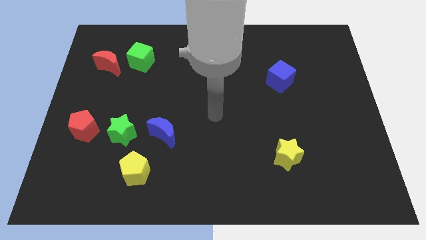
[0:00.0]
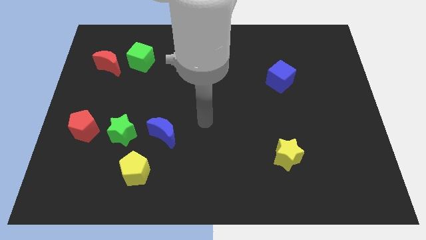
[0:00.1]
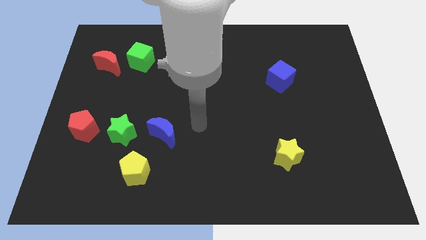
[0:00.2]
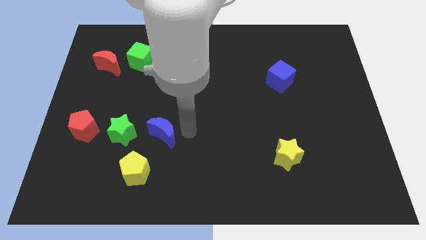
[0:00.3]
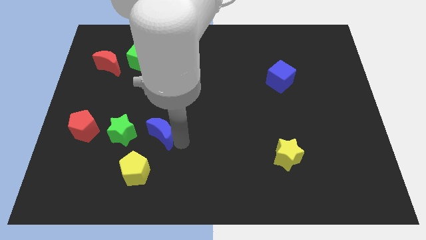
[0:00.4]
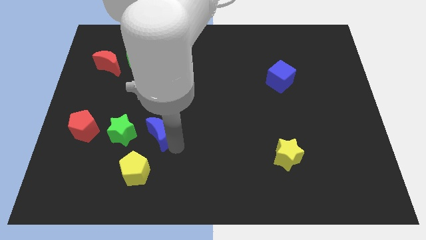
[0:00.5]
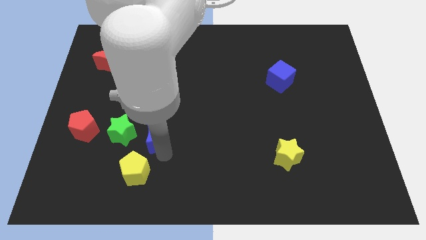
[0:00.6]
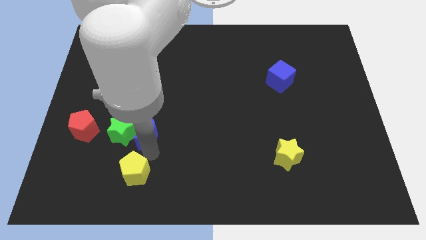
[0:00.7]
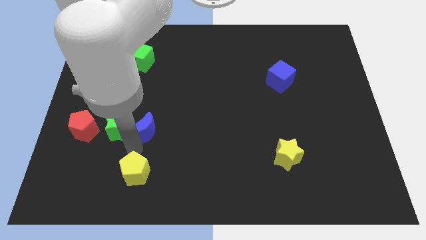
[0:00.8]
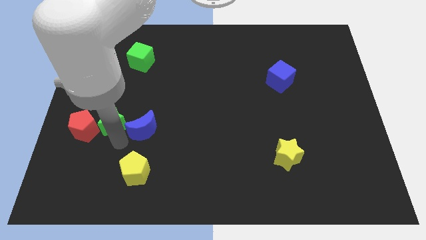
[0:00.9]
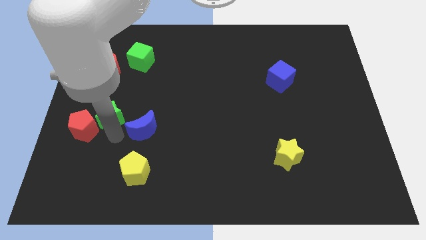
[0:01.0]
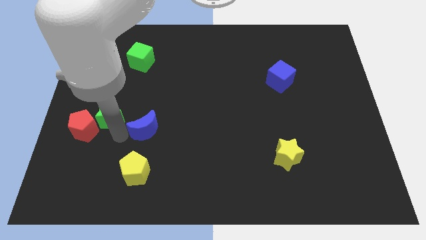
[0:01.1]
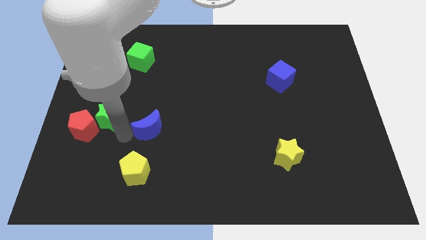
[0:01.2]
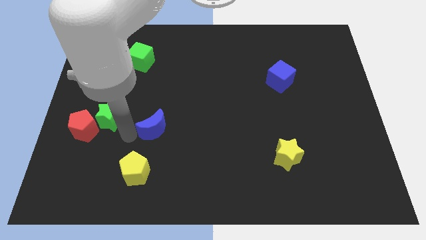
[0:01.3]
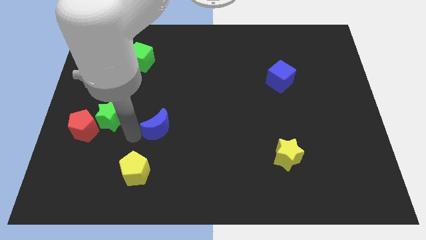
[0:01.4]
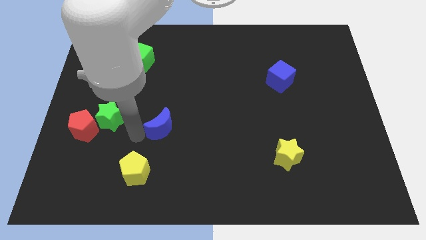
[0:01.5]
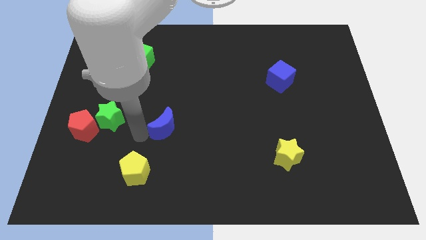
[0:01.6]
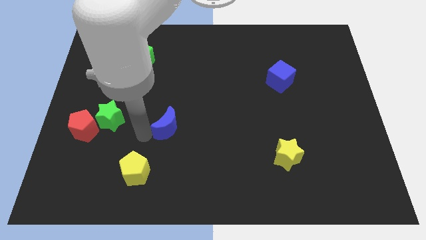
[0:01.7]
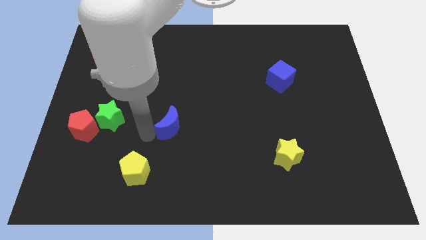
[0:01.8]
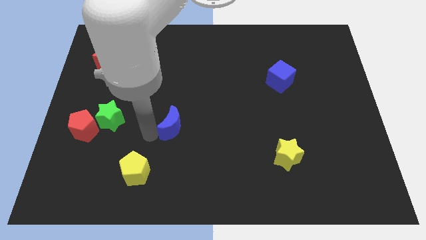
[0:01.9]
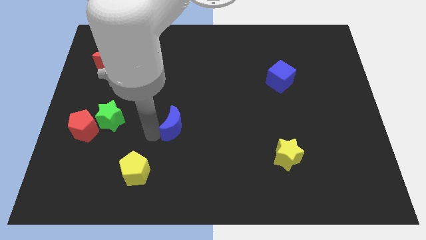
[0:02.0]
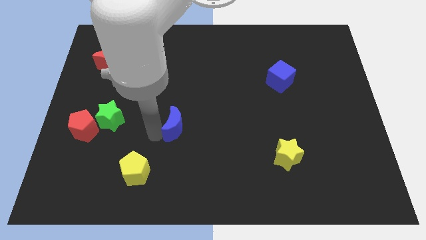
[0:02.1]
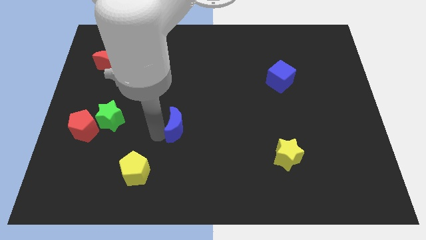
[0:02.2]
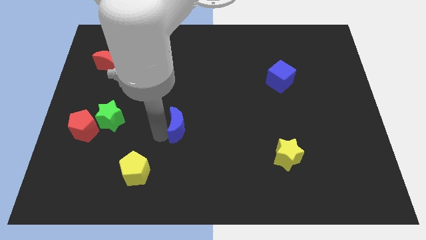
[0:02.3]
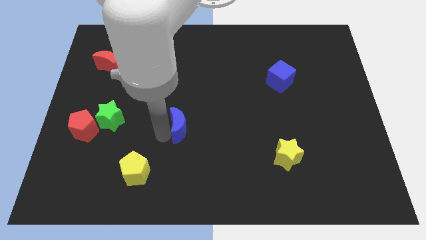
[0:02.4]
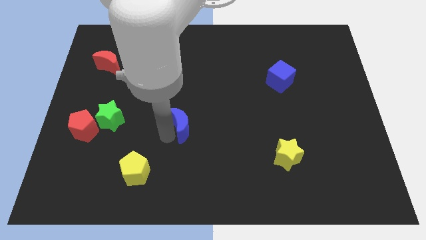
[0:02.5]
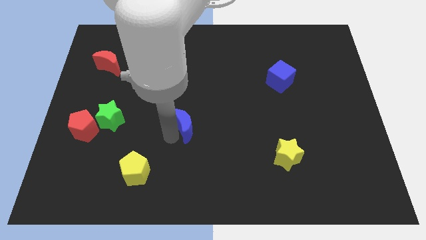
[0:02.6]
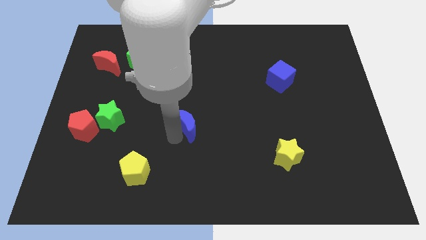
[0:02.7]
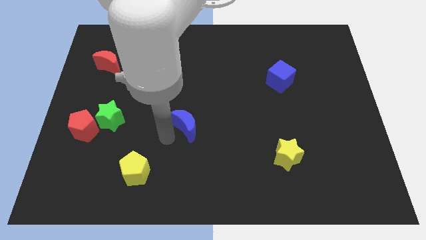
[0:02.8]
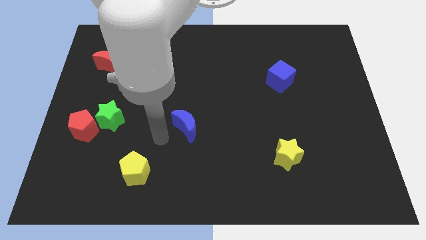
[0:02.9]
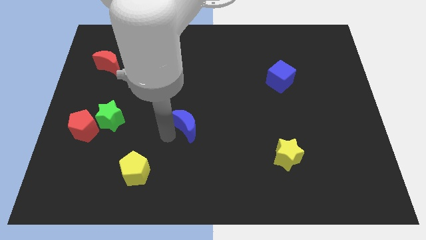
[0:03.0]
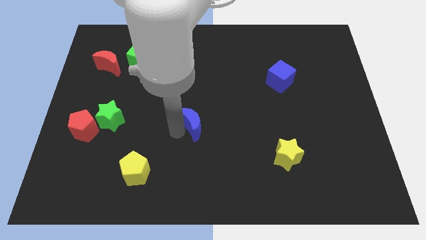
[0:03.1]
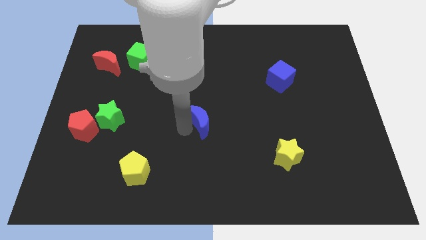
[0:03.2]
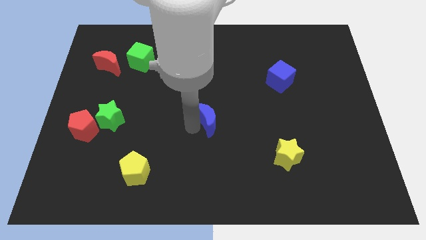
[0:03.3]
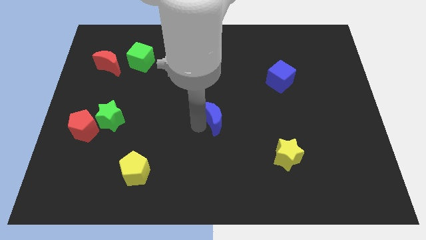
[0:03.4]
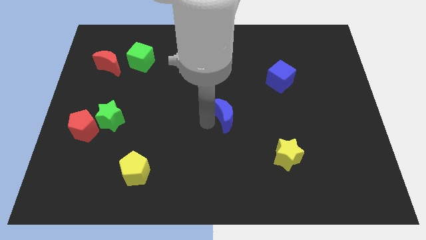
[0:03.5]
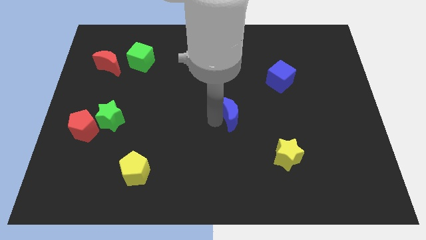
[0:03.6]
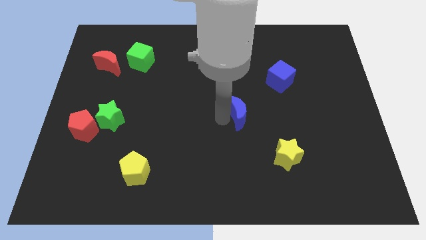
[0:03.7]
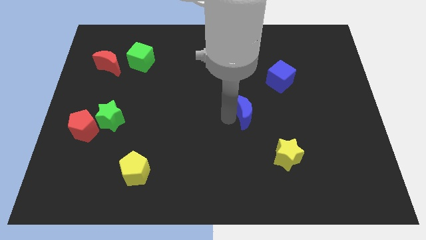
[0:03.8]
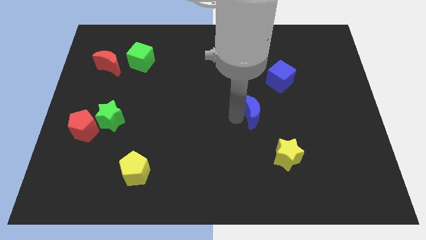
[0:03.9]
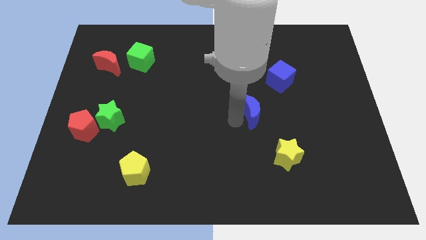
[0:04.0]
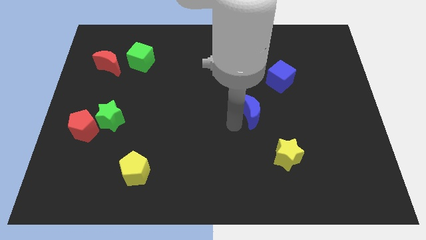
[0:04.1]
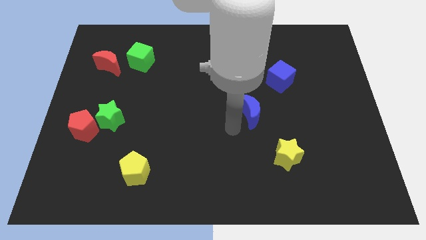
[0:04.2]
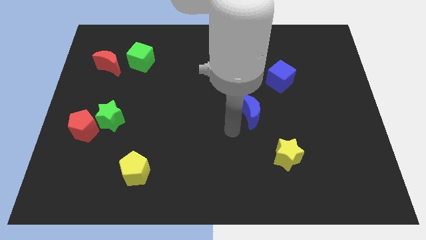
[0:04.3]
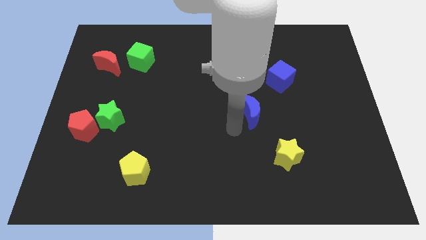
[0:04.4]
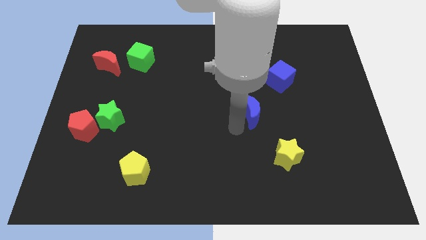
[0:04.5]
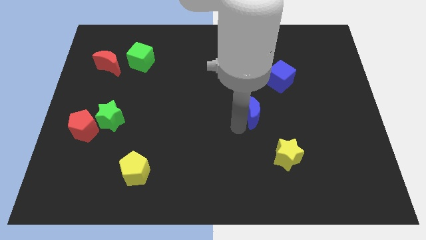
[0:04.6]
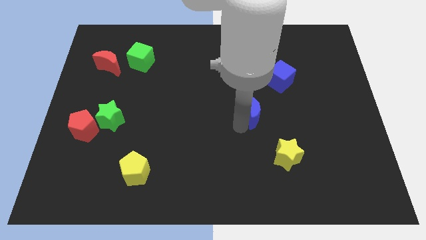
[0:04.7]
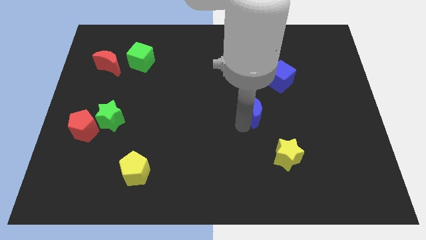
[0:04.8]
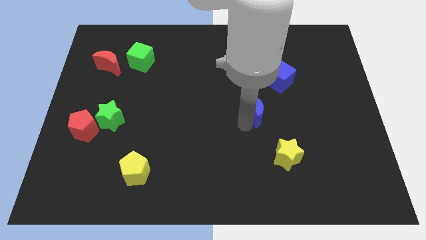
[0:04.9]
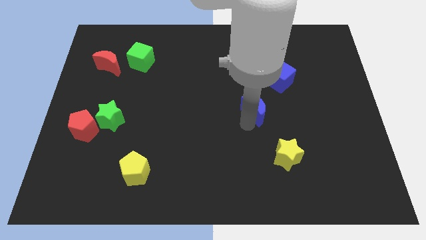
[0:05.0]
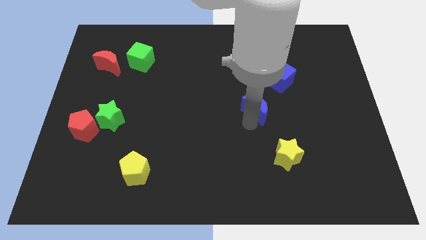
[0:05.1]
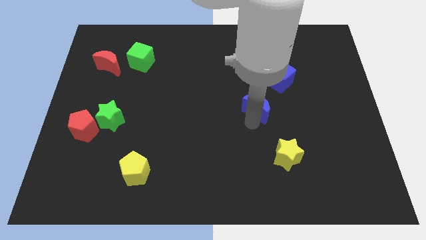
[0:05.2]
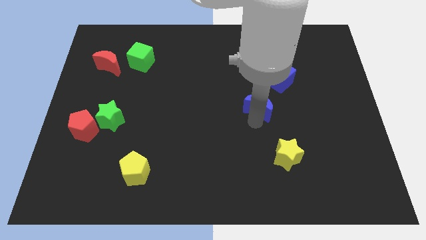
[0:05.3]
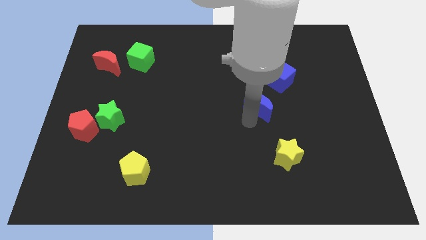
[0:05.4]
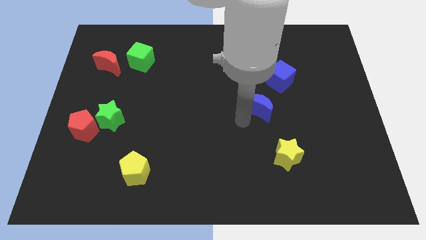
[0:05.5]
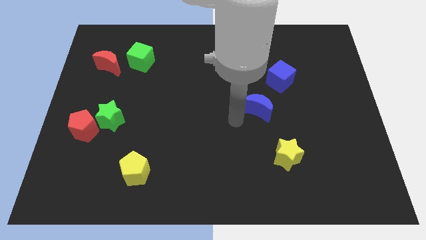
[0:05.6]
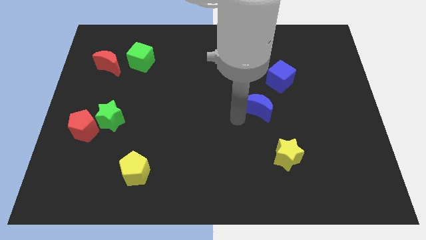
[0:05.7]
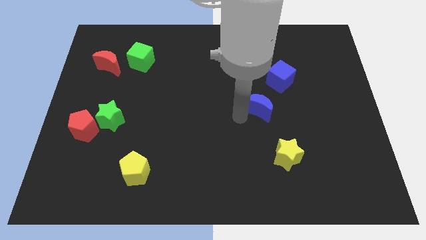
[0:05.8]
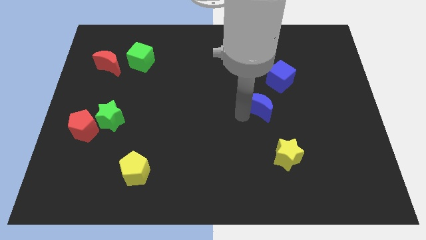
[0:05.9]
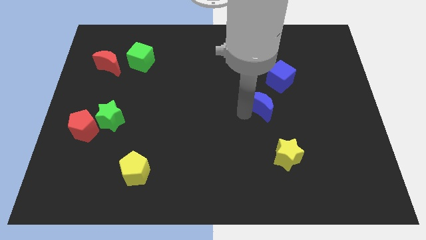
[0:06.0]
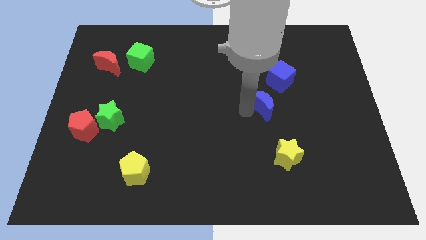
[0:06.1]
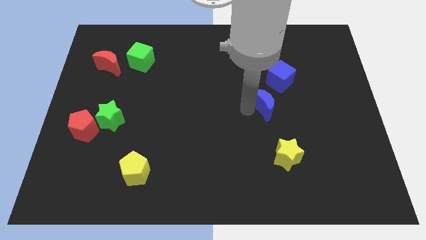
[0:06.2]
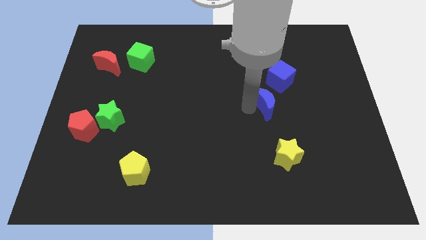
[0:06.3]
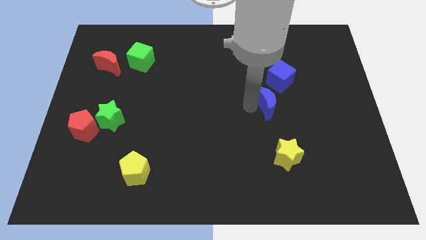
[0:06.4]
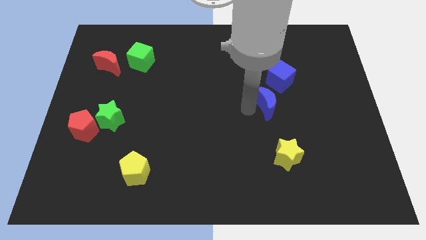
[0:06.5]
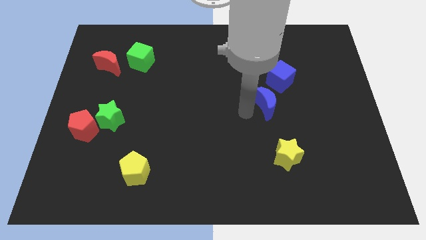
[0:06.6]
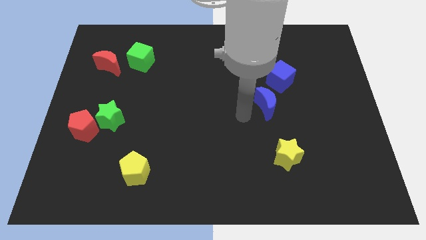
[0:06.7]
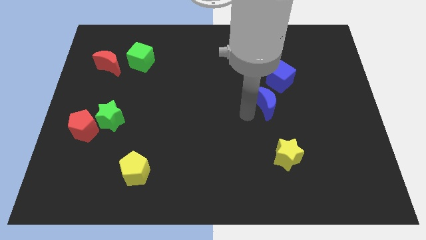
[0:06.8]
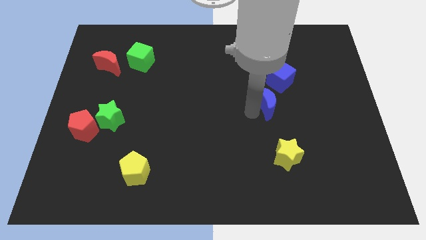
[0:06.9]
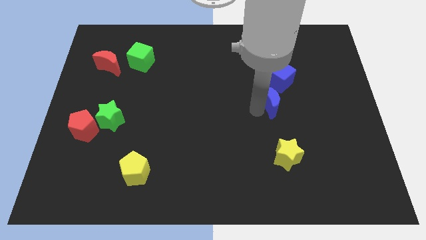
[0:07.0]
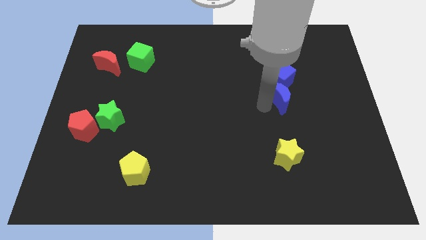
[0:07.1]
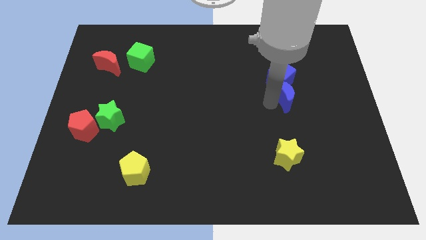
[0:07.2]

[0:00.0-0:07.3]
put the blue moon diagonally down and to the right of the blue cube

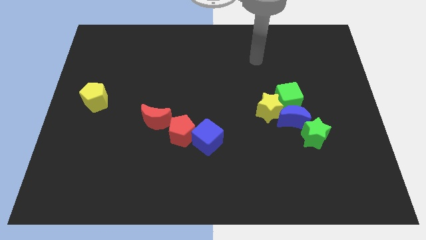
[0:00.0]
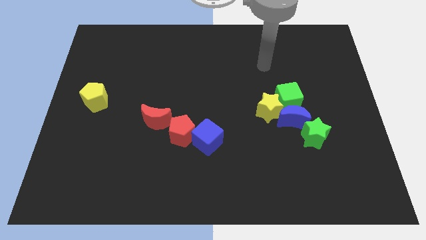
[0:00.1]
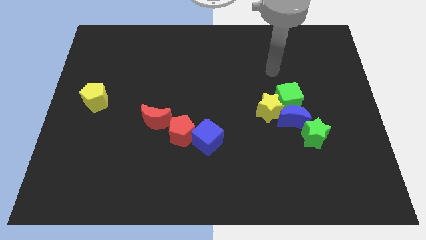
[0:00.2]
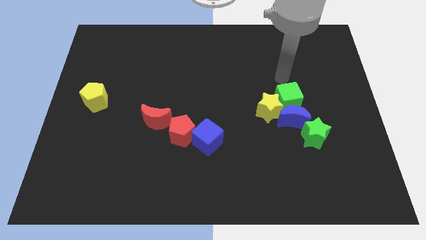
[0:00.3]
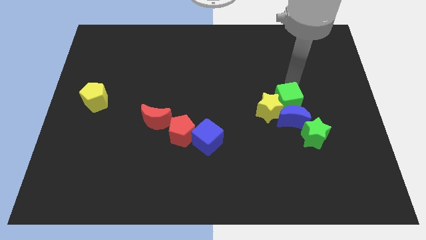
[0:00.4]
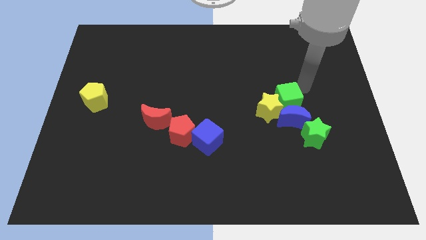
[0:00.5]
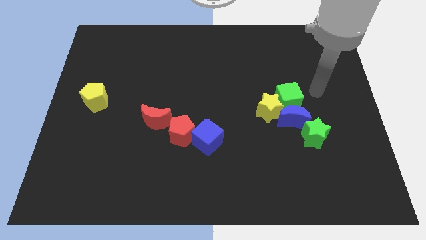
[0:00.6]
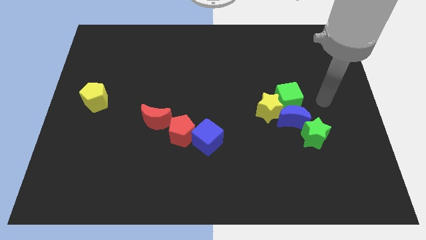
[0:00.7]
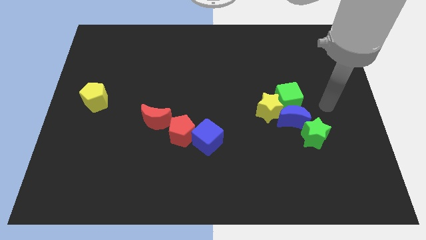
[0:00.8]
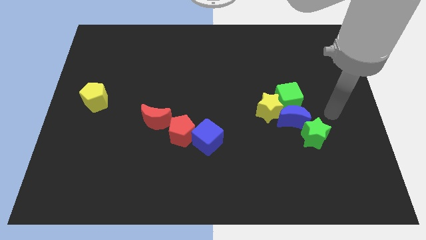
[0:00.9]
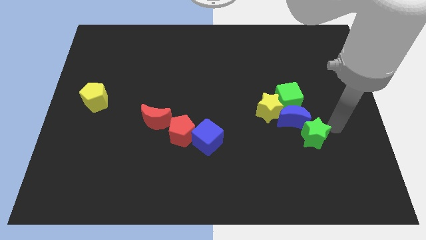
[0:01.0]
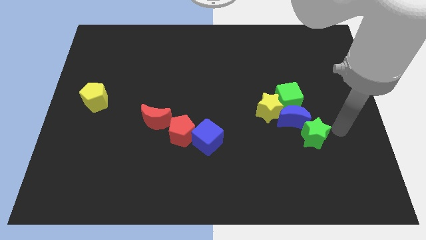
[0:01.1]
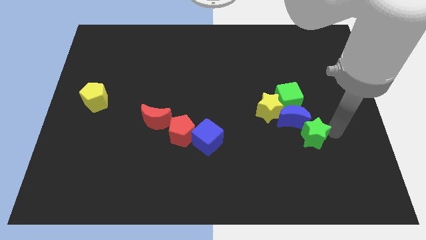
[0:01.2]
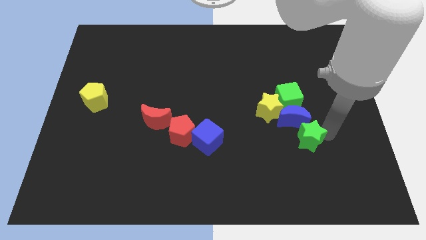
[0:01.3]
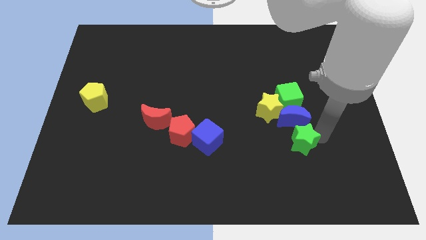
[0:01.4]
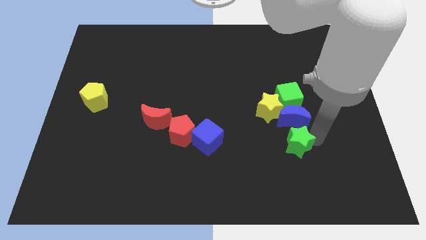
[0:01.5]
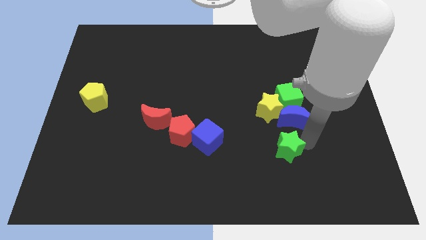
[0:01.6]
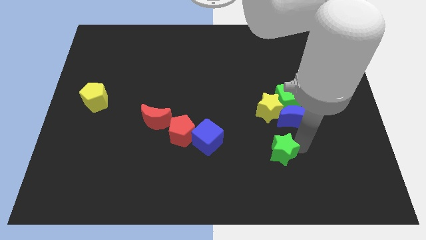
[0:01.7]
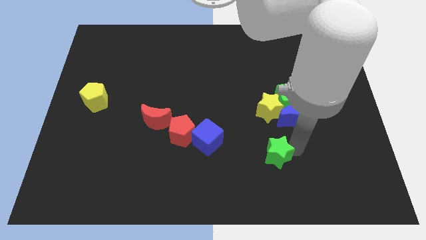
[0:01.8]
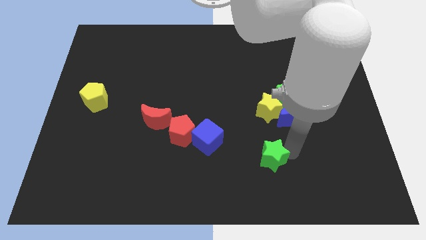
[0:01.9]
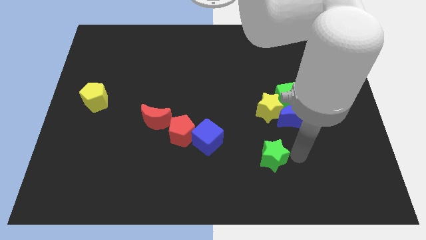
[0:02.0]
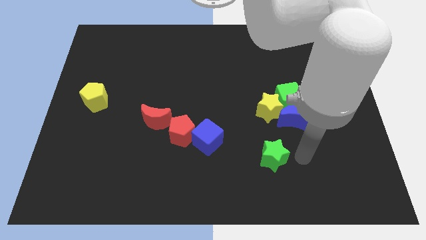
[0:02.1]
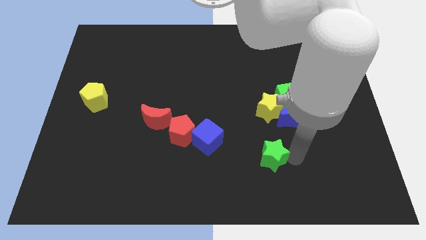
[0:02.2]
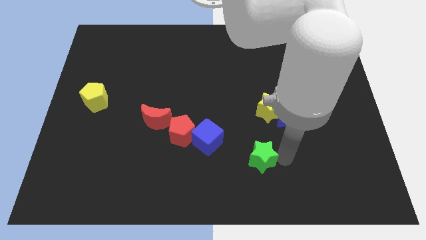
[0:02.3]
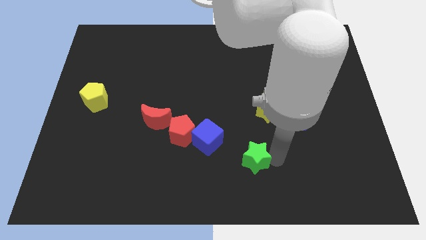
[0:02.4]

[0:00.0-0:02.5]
move the green star to the bottom right of the blue cube
